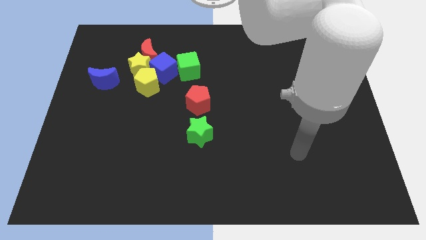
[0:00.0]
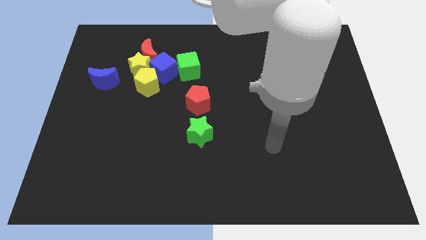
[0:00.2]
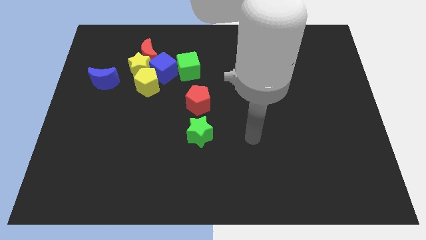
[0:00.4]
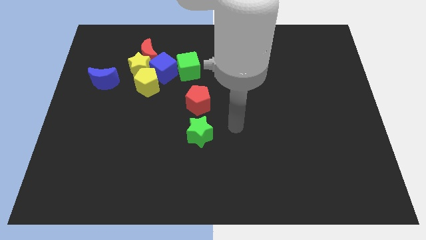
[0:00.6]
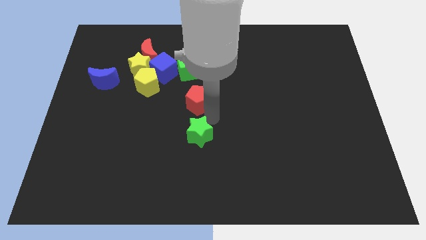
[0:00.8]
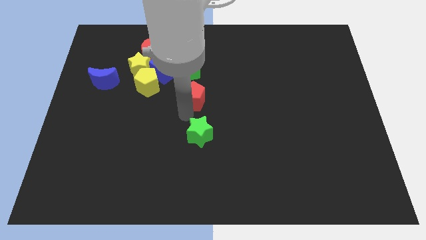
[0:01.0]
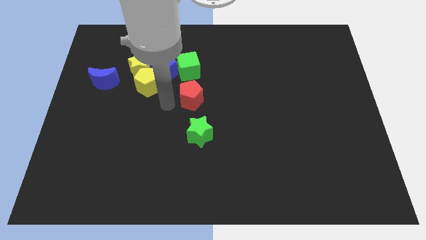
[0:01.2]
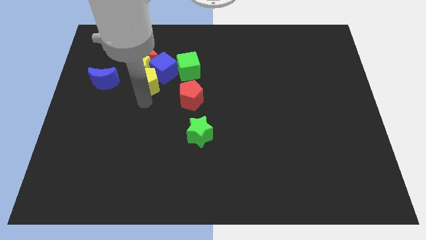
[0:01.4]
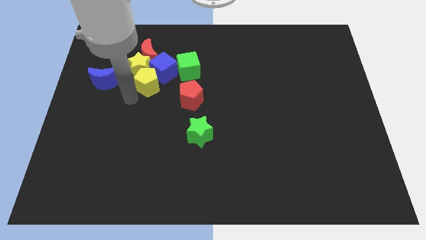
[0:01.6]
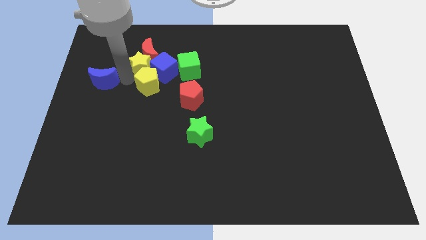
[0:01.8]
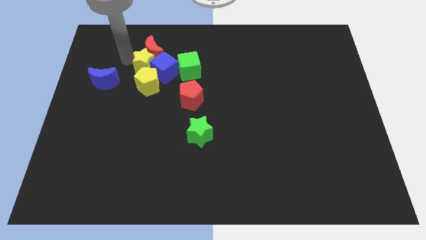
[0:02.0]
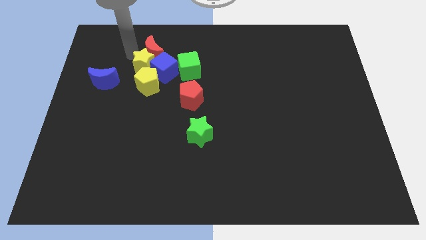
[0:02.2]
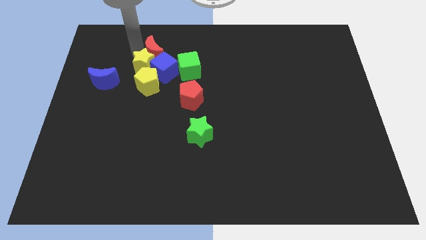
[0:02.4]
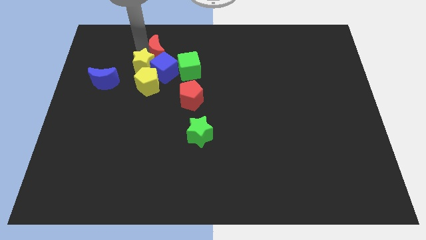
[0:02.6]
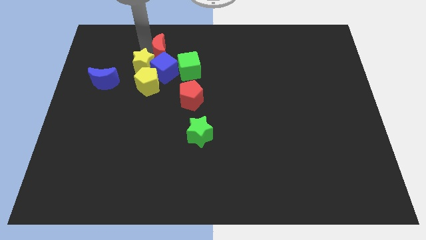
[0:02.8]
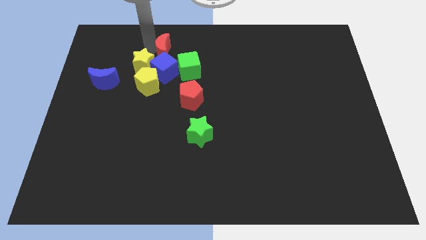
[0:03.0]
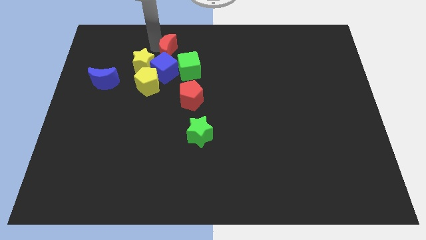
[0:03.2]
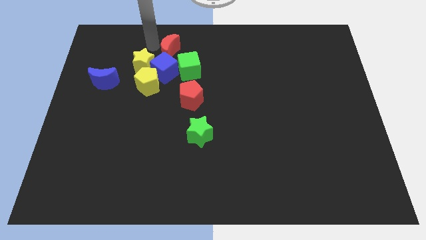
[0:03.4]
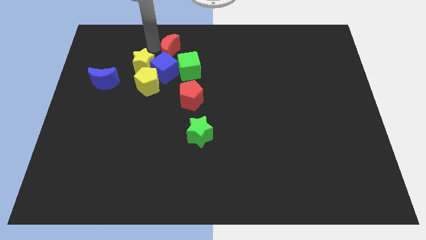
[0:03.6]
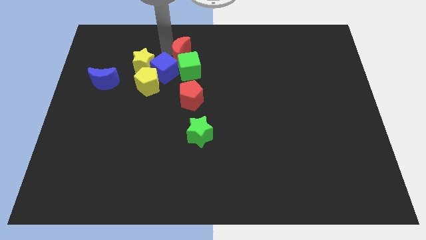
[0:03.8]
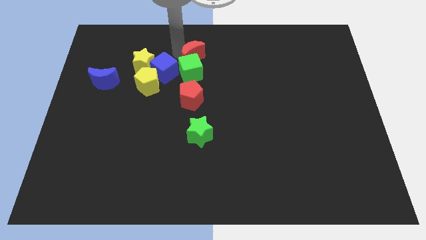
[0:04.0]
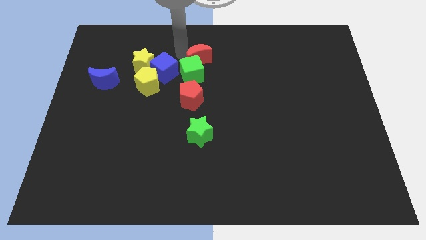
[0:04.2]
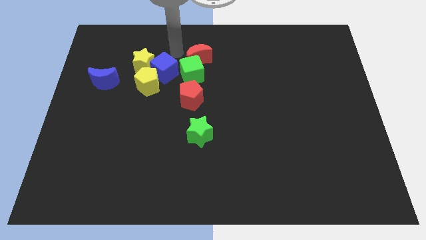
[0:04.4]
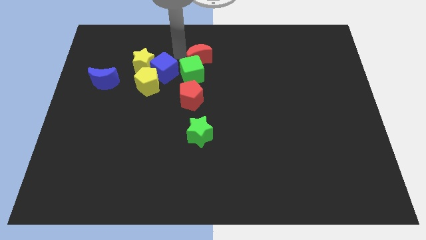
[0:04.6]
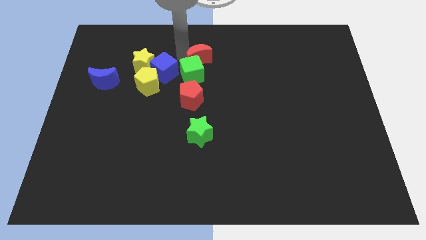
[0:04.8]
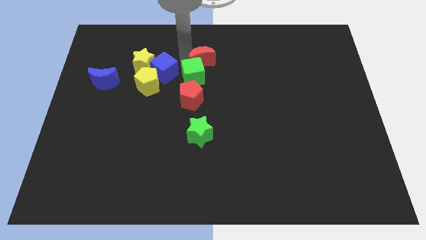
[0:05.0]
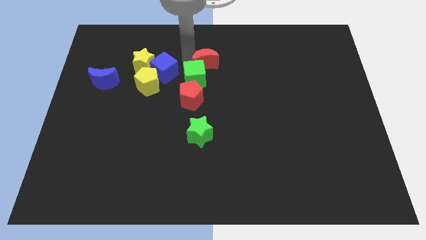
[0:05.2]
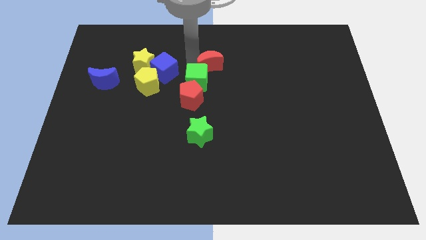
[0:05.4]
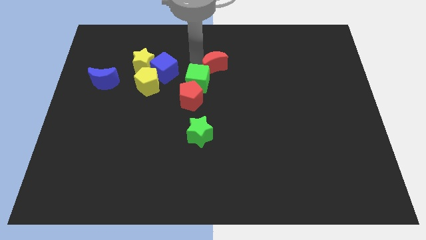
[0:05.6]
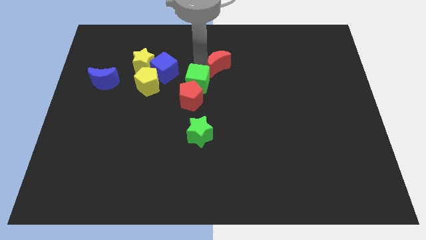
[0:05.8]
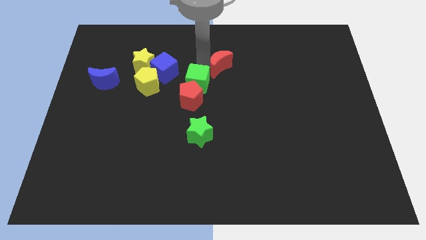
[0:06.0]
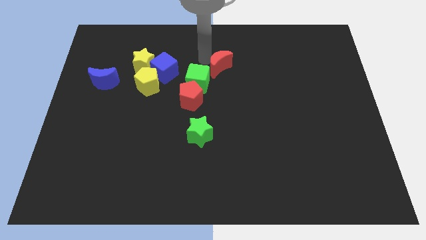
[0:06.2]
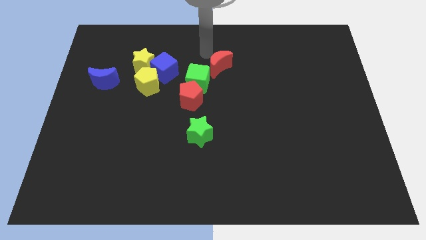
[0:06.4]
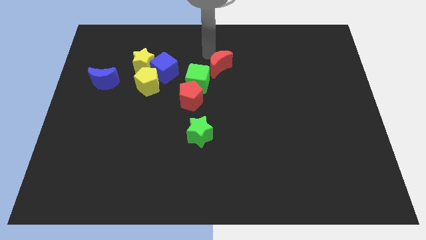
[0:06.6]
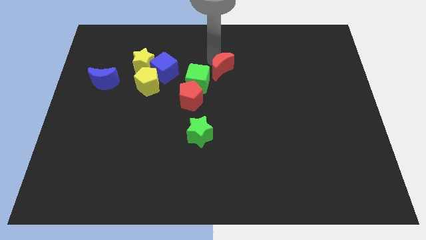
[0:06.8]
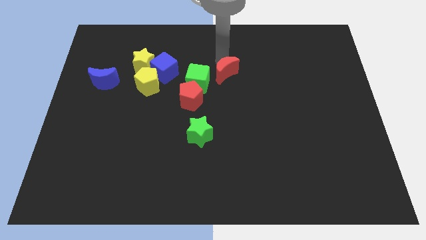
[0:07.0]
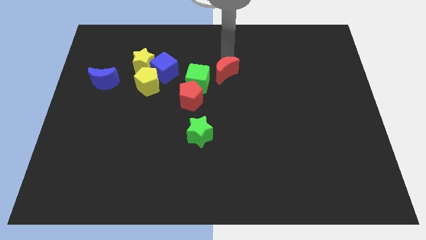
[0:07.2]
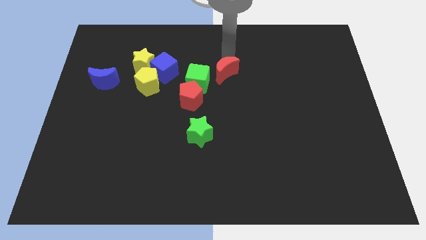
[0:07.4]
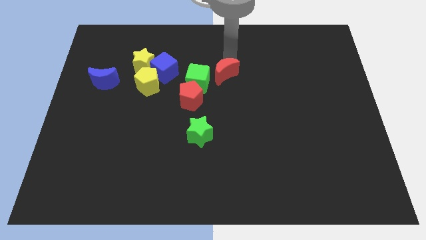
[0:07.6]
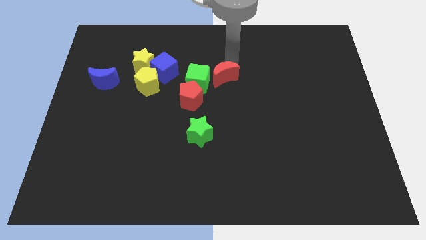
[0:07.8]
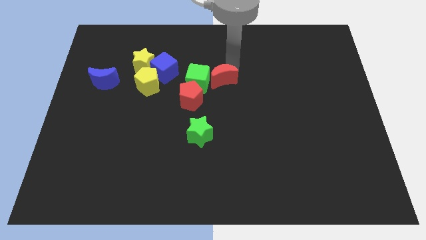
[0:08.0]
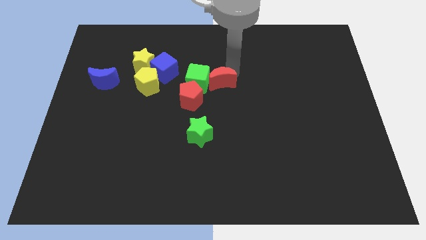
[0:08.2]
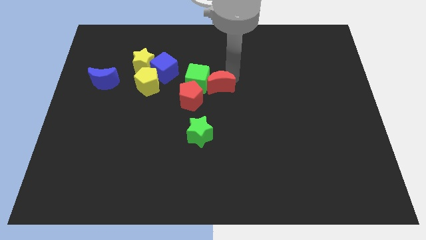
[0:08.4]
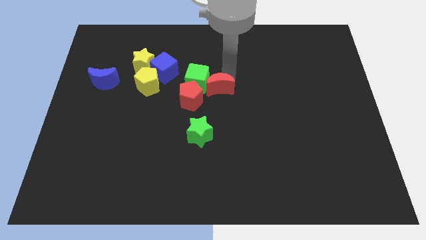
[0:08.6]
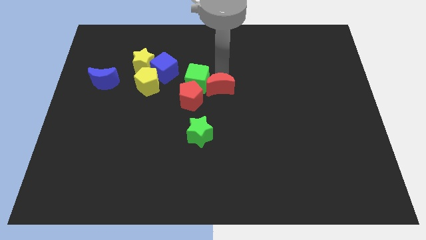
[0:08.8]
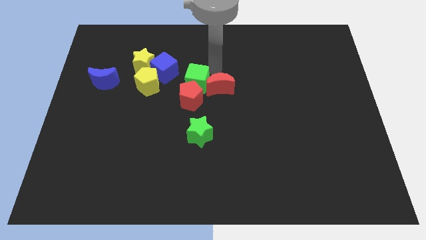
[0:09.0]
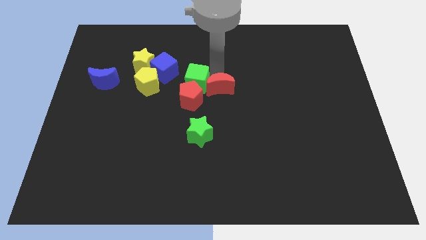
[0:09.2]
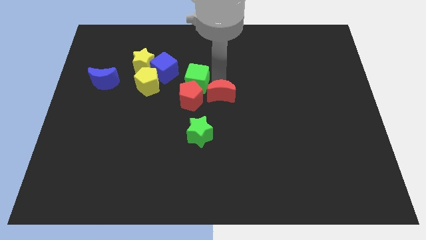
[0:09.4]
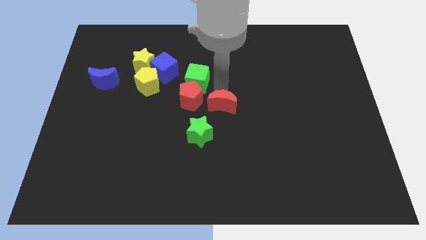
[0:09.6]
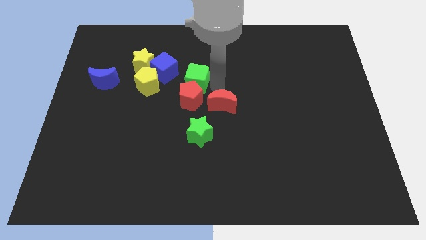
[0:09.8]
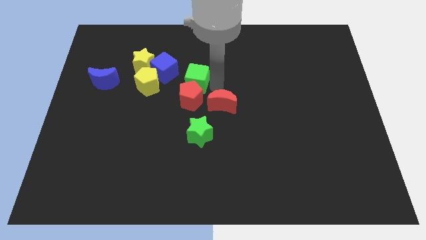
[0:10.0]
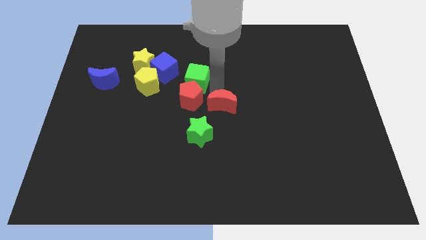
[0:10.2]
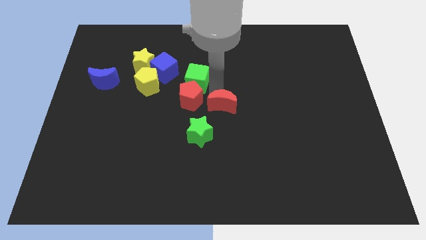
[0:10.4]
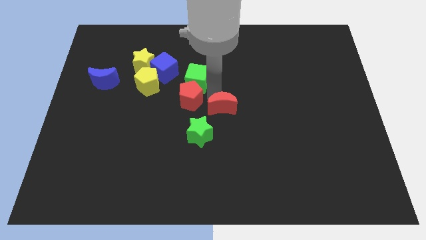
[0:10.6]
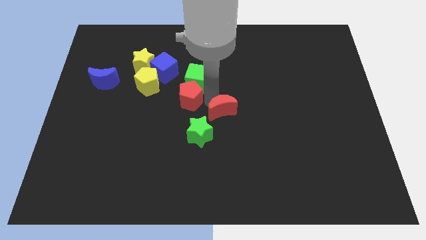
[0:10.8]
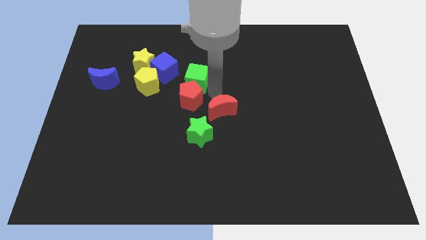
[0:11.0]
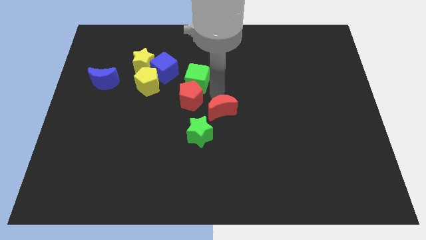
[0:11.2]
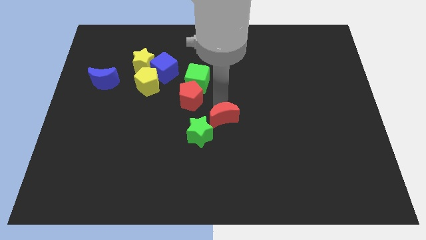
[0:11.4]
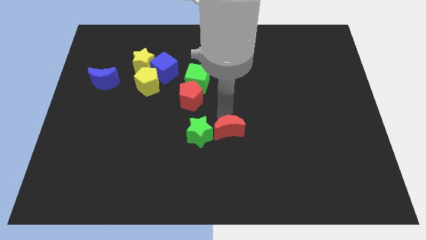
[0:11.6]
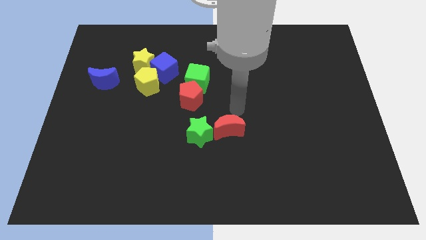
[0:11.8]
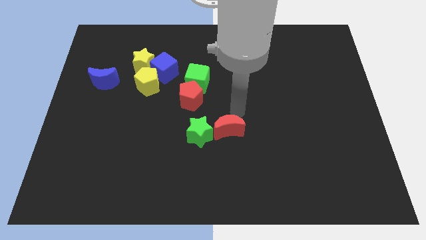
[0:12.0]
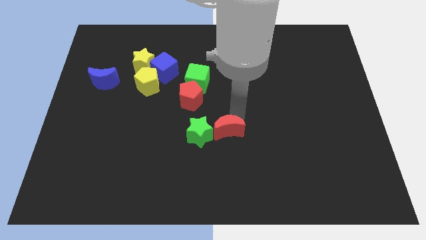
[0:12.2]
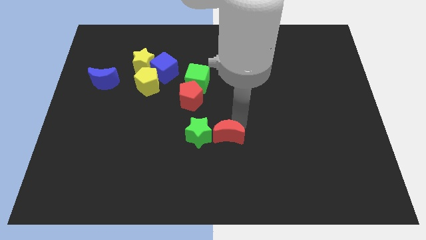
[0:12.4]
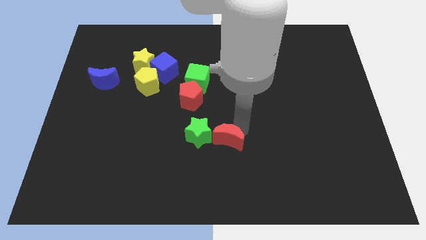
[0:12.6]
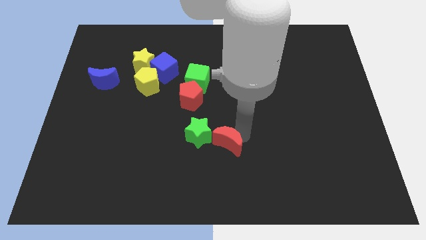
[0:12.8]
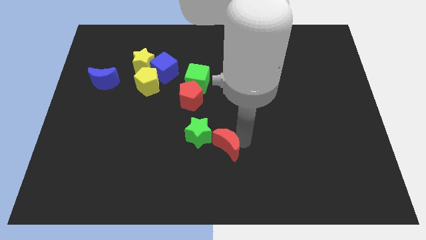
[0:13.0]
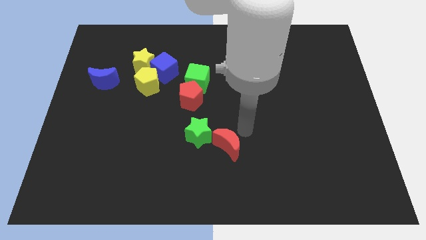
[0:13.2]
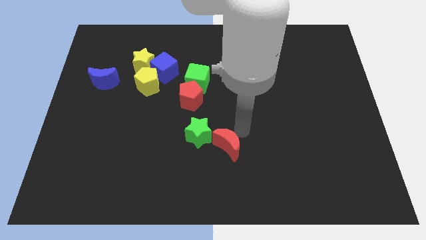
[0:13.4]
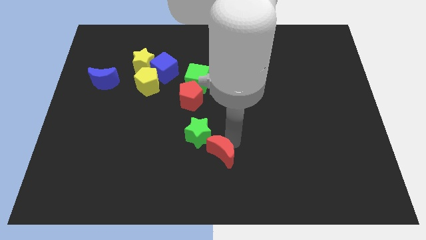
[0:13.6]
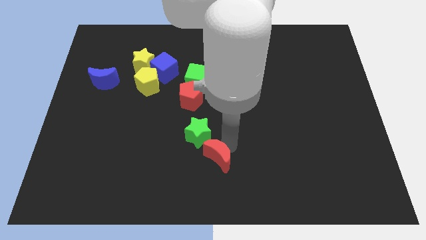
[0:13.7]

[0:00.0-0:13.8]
put the red moon below the green star
